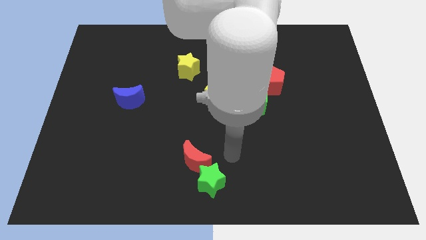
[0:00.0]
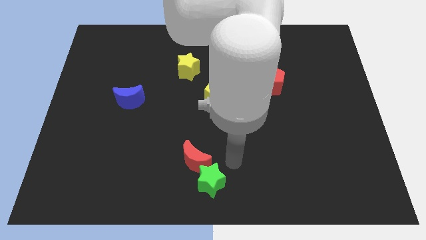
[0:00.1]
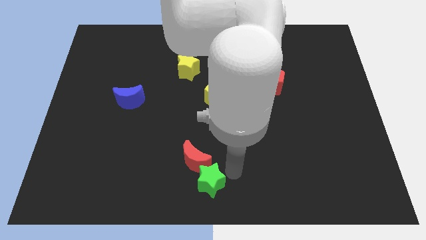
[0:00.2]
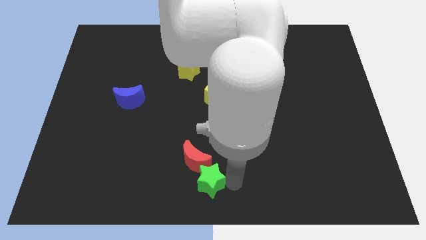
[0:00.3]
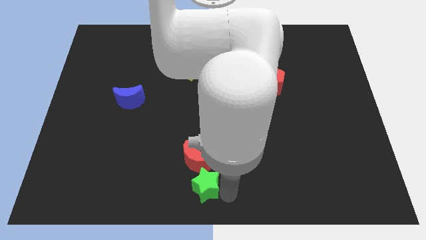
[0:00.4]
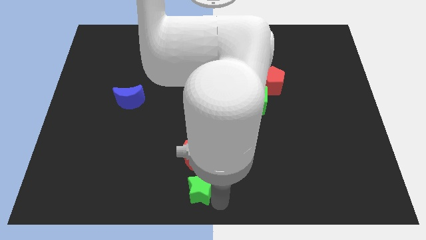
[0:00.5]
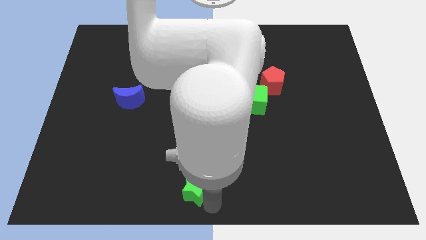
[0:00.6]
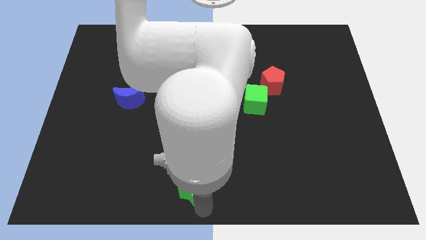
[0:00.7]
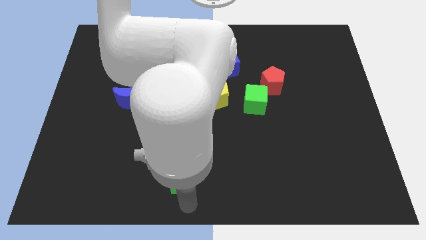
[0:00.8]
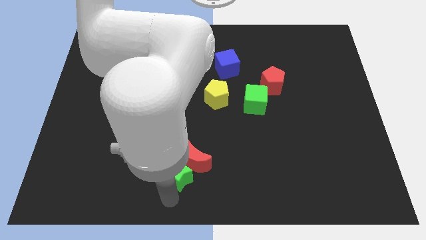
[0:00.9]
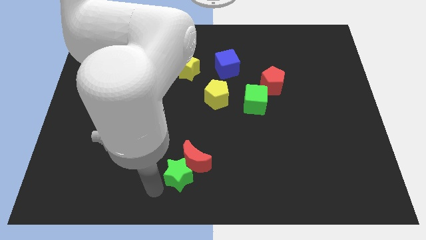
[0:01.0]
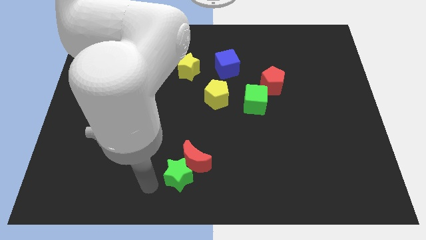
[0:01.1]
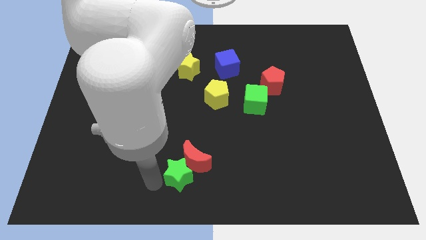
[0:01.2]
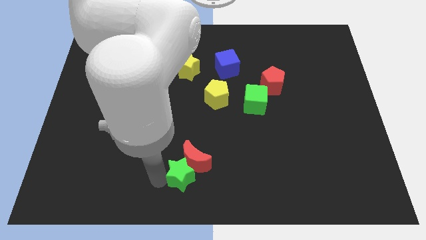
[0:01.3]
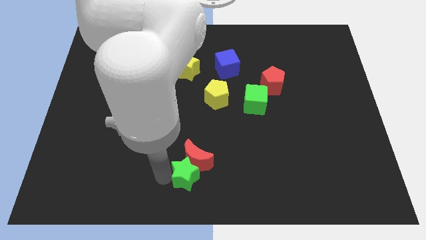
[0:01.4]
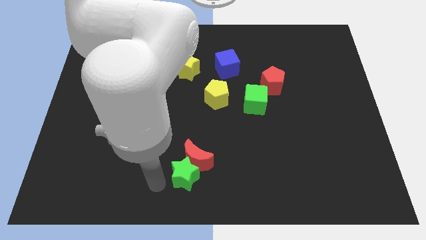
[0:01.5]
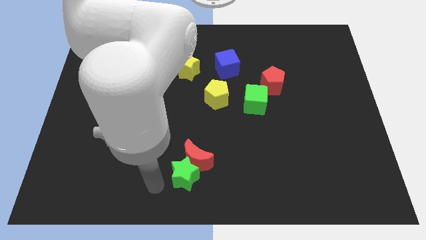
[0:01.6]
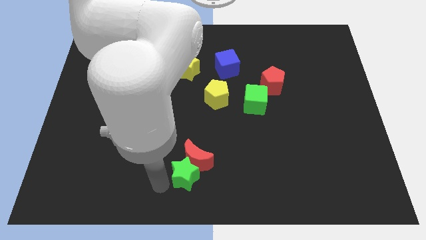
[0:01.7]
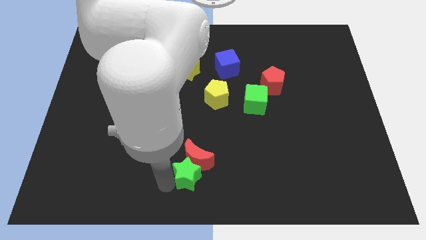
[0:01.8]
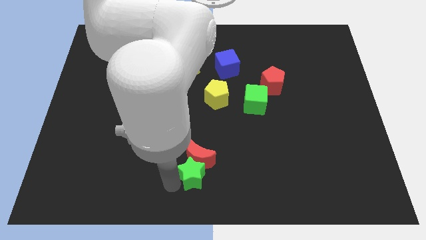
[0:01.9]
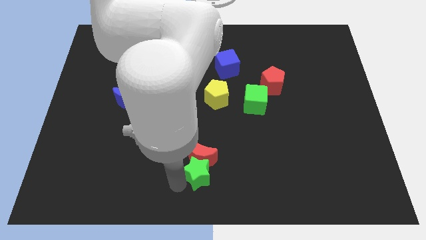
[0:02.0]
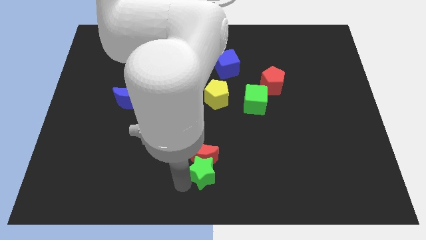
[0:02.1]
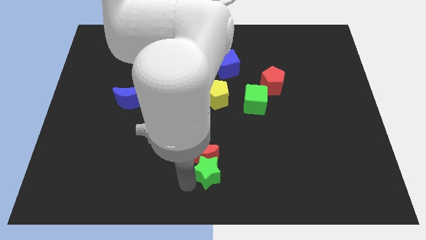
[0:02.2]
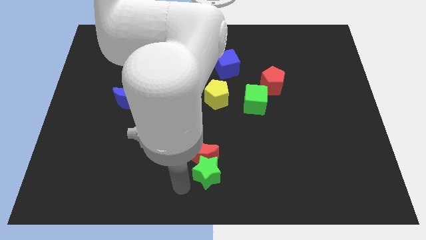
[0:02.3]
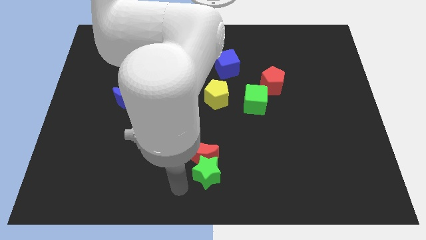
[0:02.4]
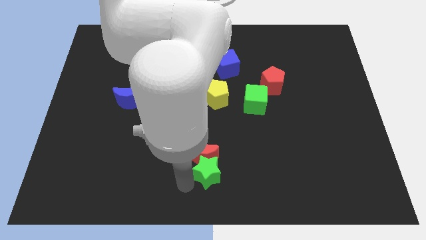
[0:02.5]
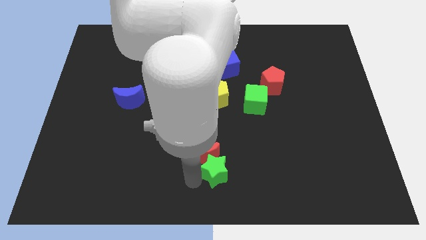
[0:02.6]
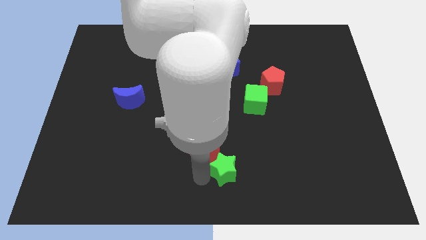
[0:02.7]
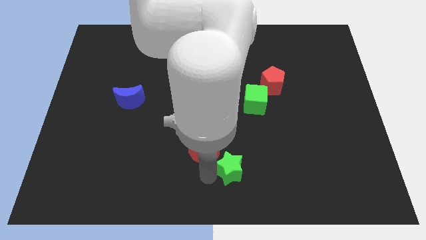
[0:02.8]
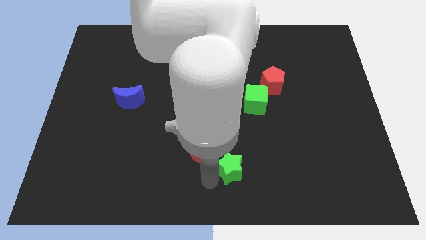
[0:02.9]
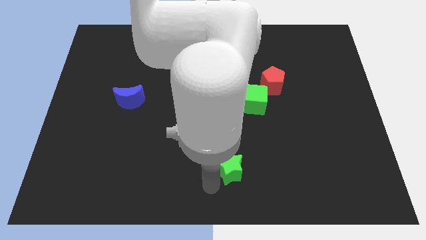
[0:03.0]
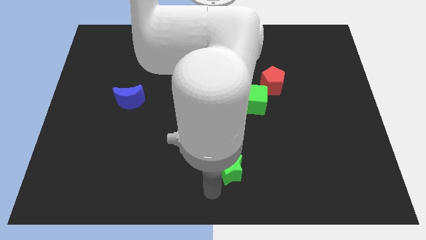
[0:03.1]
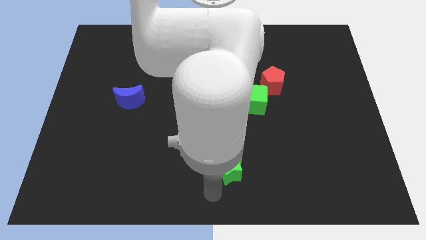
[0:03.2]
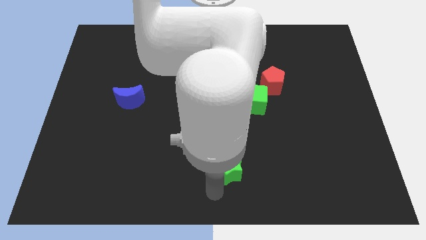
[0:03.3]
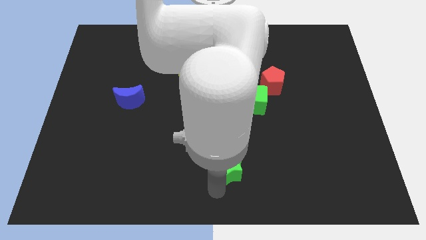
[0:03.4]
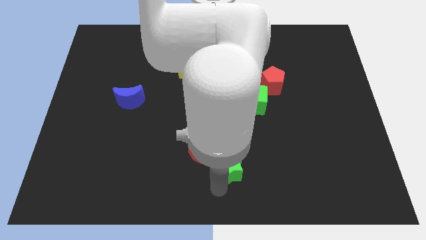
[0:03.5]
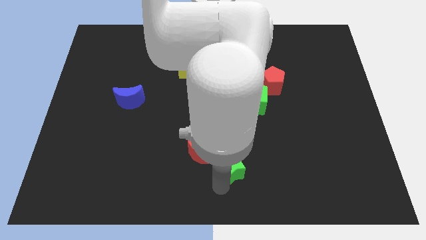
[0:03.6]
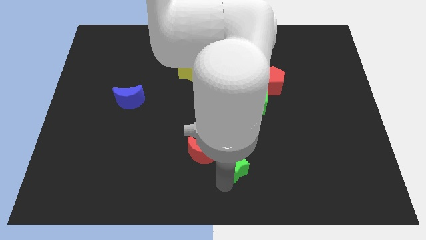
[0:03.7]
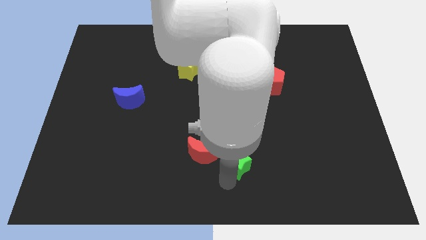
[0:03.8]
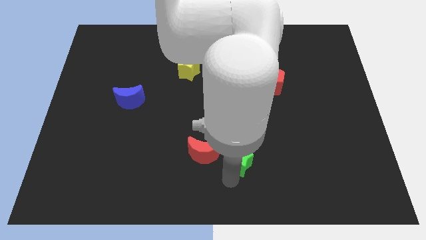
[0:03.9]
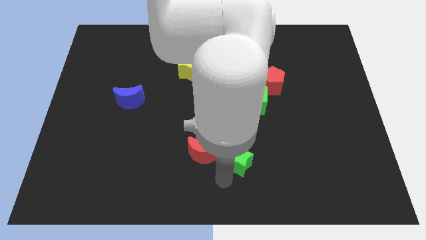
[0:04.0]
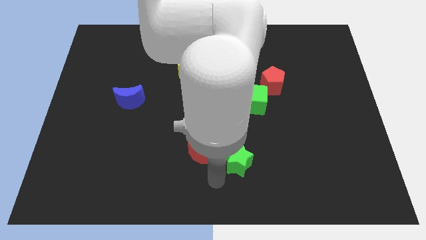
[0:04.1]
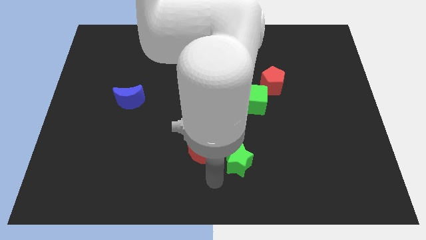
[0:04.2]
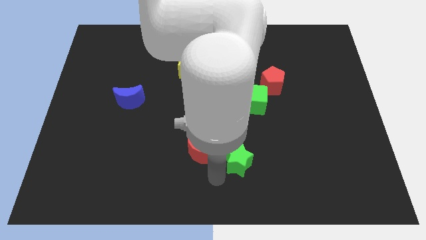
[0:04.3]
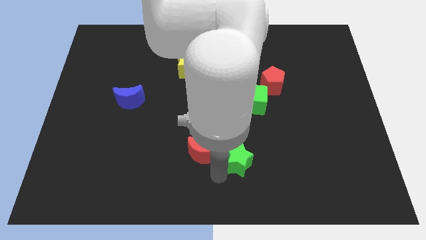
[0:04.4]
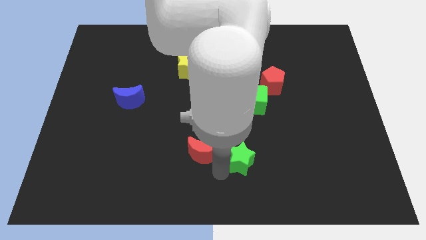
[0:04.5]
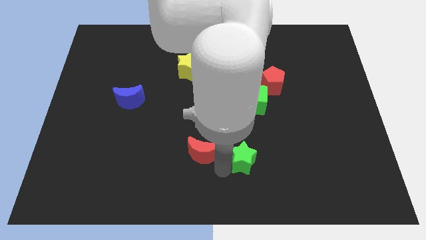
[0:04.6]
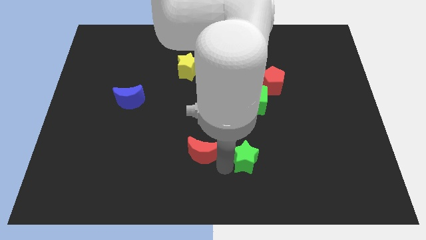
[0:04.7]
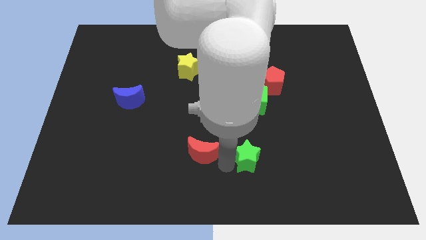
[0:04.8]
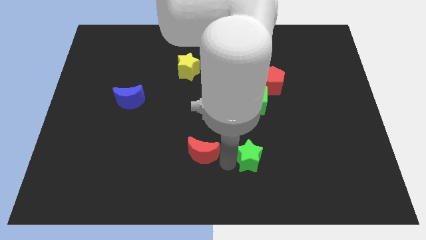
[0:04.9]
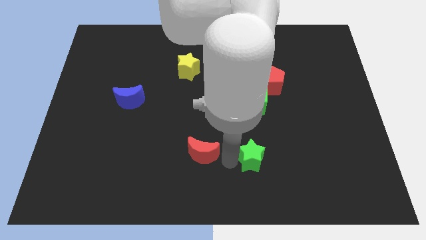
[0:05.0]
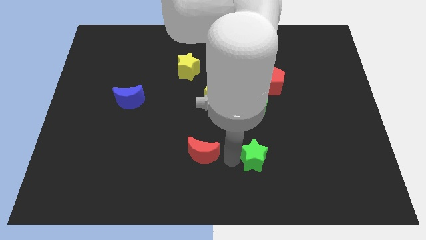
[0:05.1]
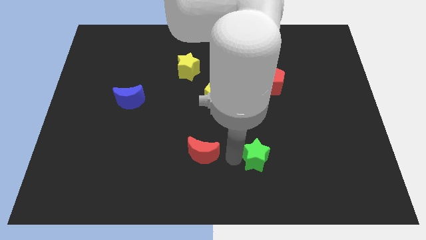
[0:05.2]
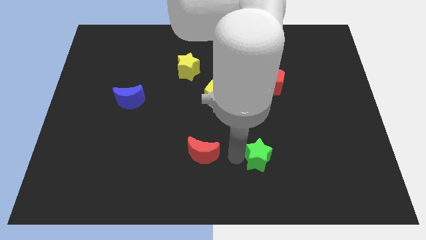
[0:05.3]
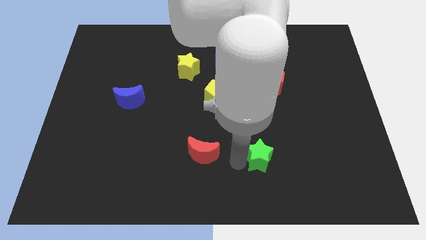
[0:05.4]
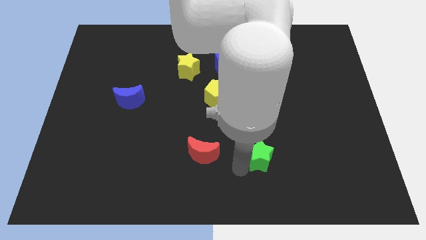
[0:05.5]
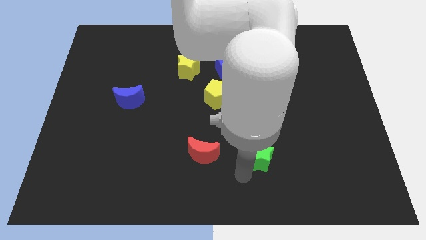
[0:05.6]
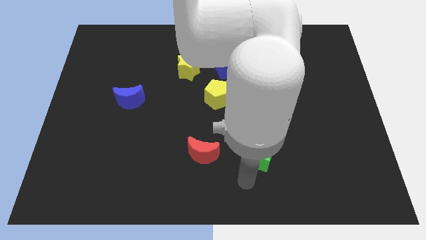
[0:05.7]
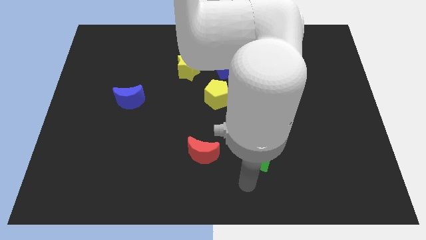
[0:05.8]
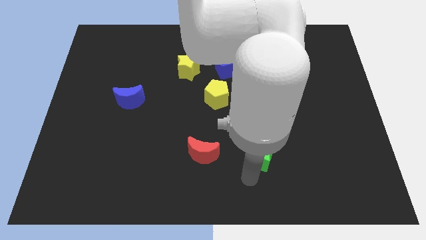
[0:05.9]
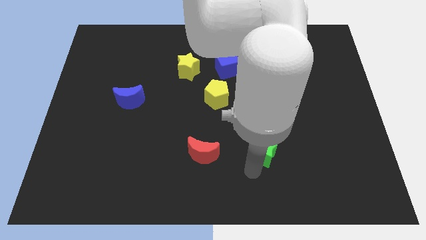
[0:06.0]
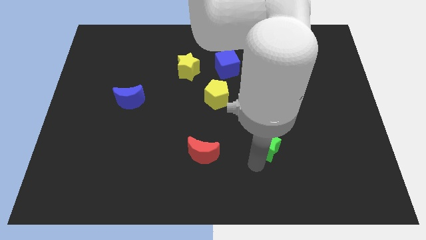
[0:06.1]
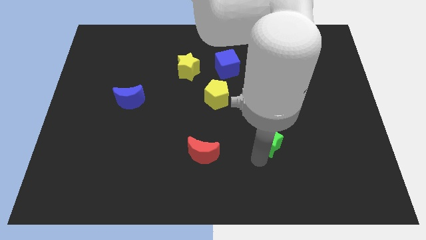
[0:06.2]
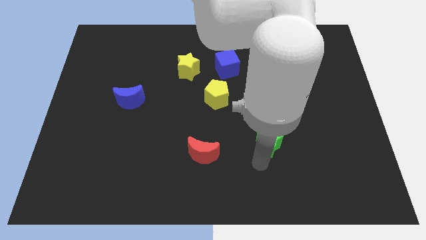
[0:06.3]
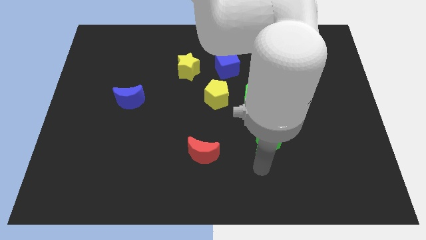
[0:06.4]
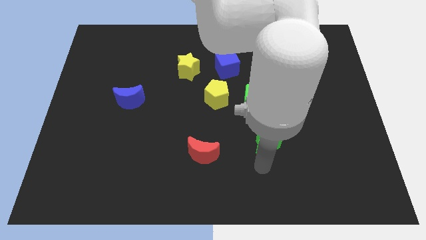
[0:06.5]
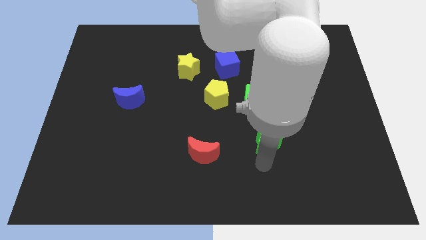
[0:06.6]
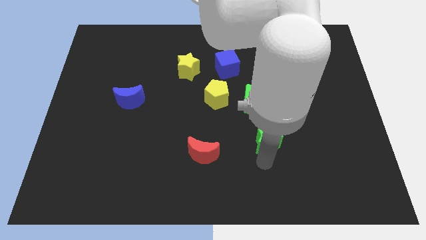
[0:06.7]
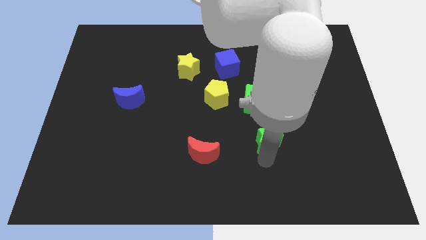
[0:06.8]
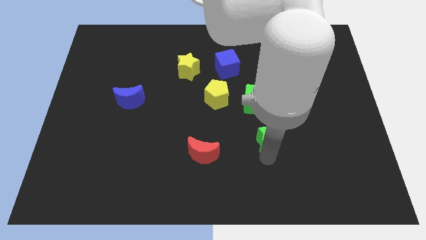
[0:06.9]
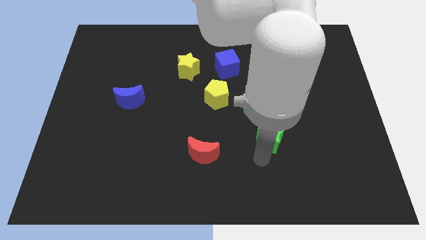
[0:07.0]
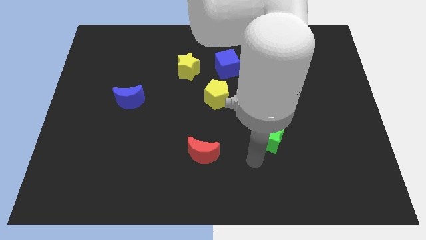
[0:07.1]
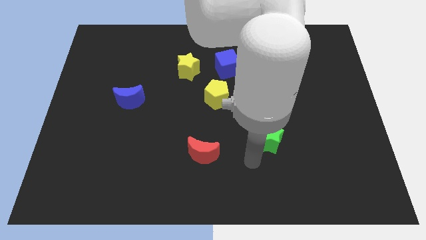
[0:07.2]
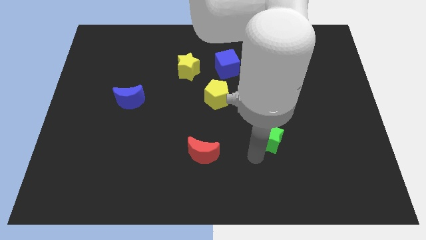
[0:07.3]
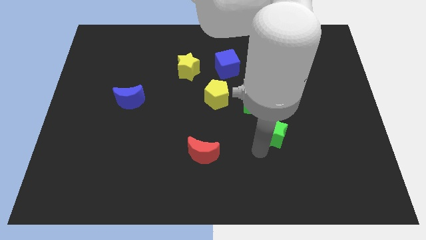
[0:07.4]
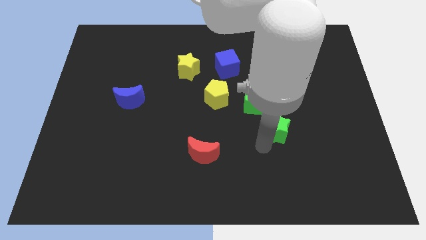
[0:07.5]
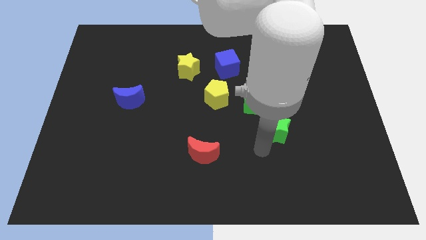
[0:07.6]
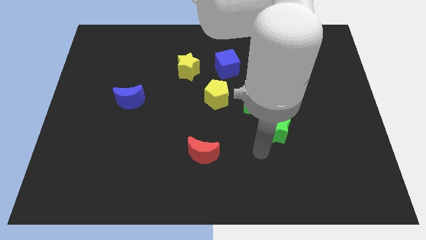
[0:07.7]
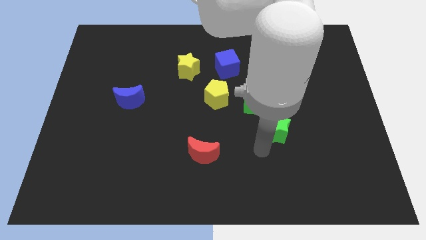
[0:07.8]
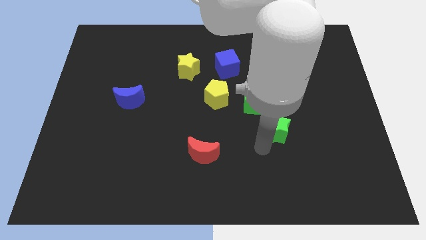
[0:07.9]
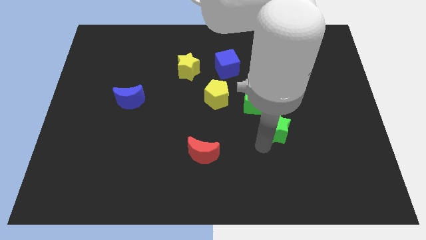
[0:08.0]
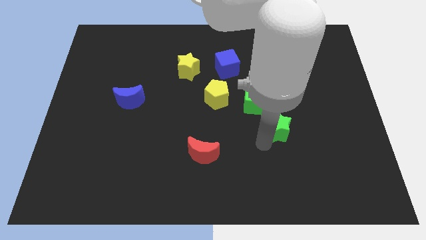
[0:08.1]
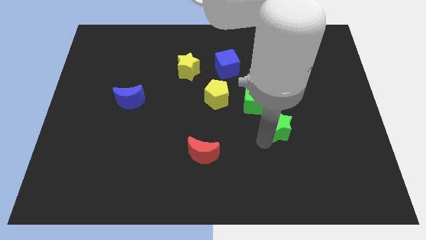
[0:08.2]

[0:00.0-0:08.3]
push the green star diagonally up and to the right
